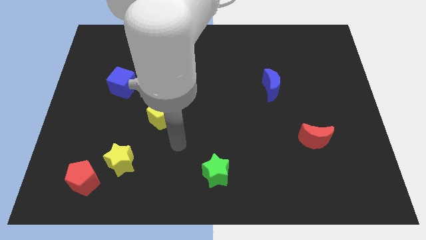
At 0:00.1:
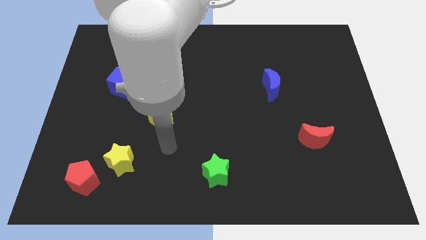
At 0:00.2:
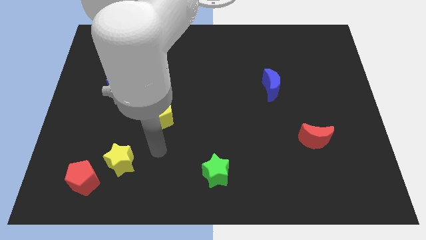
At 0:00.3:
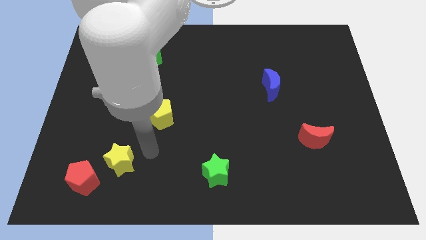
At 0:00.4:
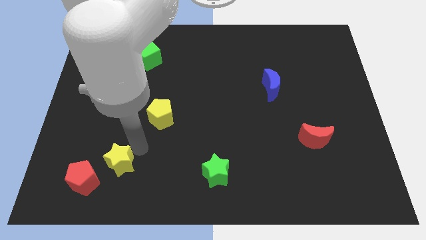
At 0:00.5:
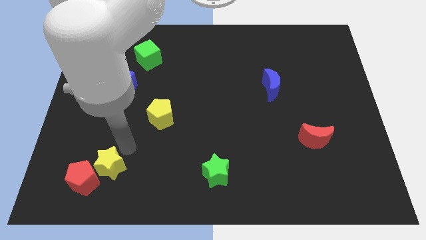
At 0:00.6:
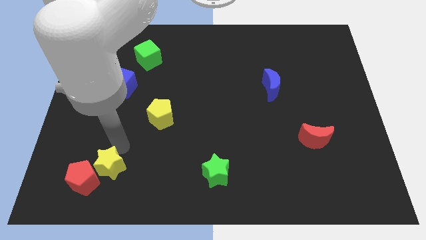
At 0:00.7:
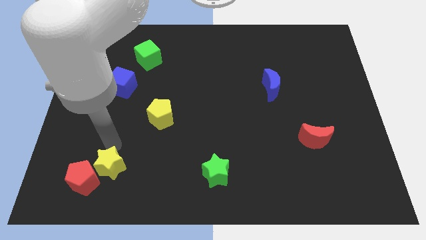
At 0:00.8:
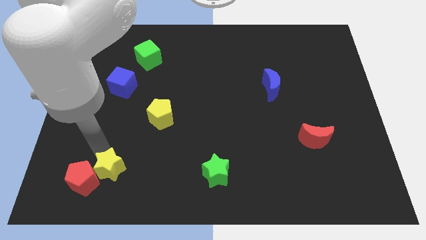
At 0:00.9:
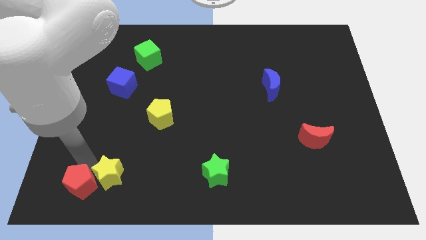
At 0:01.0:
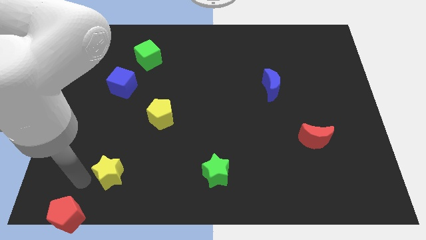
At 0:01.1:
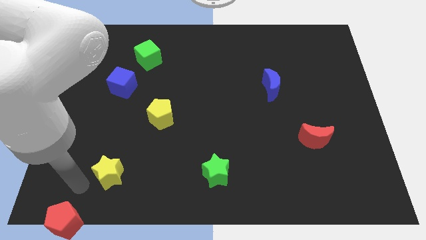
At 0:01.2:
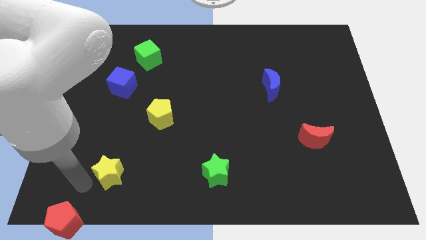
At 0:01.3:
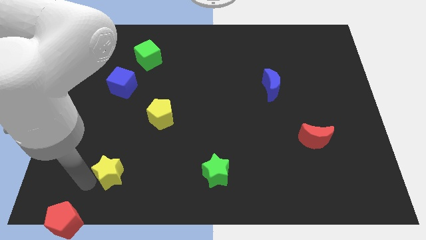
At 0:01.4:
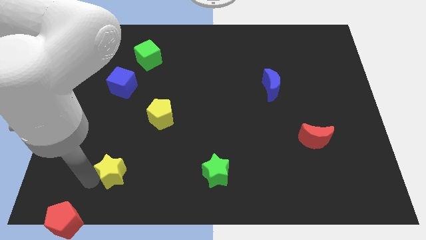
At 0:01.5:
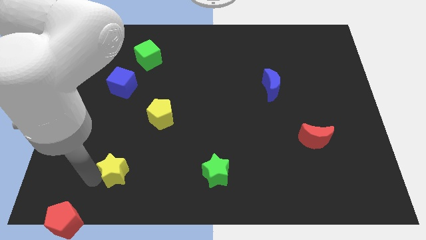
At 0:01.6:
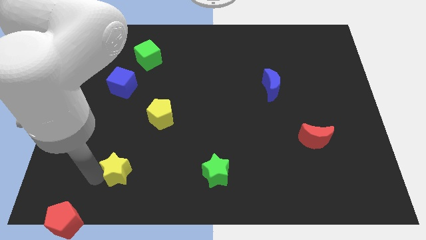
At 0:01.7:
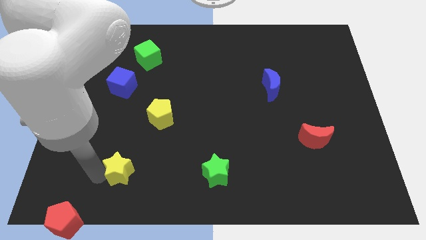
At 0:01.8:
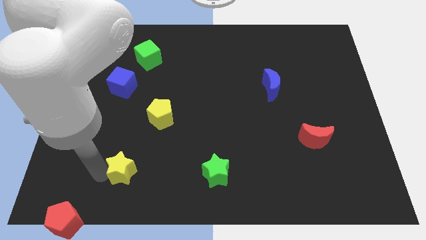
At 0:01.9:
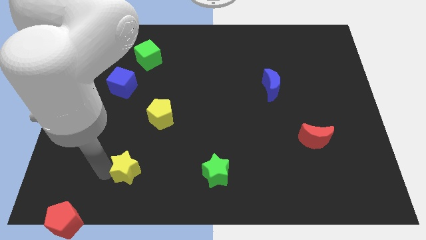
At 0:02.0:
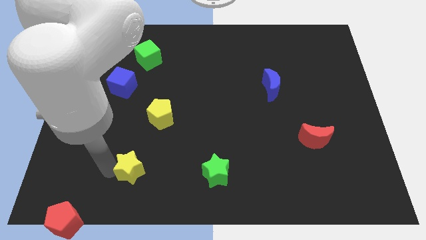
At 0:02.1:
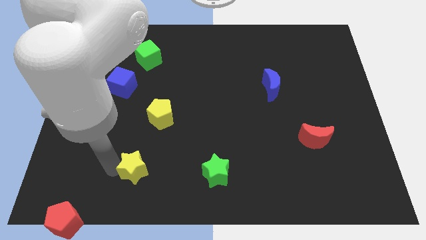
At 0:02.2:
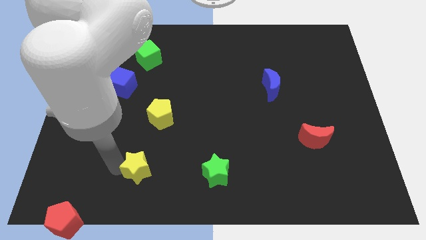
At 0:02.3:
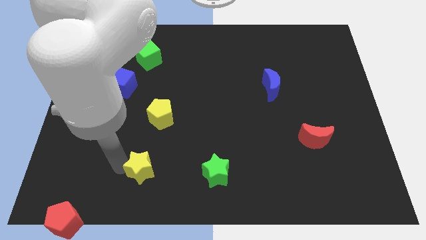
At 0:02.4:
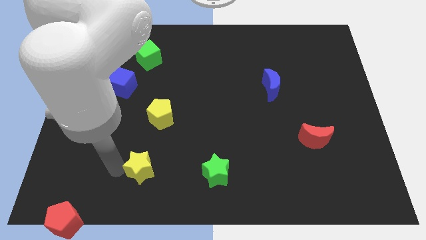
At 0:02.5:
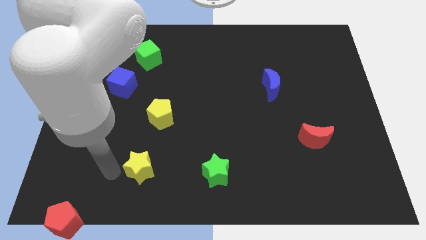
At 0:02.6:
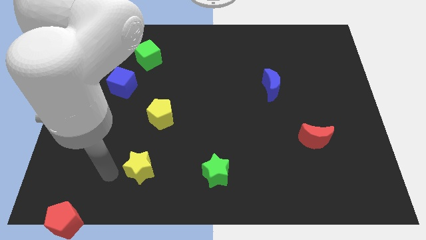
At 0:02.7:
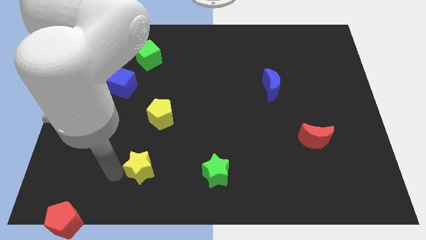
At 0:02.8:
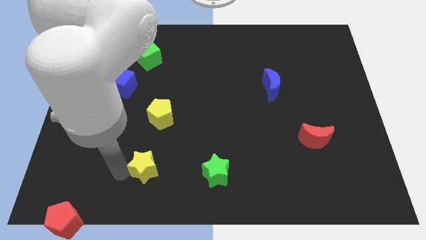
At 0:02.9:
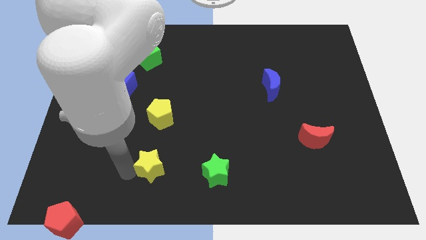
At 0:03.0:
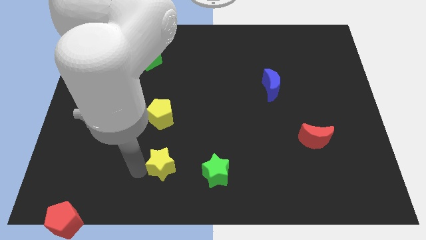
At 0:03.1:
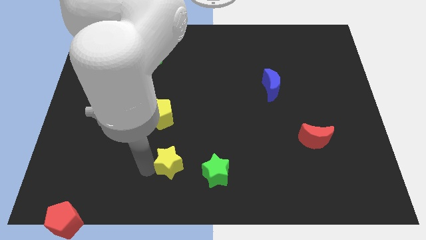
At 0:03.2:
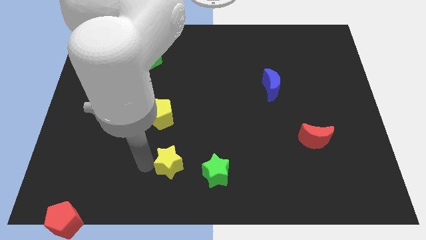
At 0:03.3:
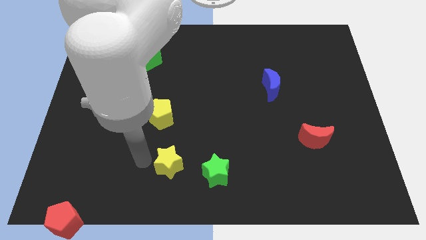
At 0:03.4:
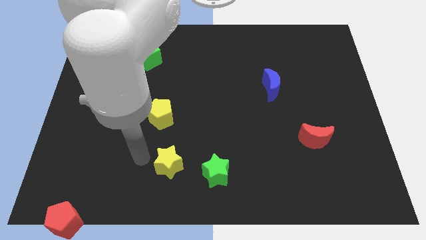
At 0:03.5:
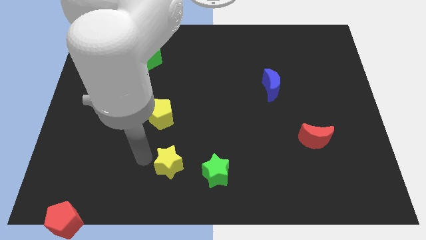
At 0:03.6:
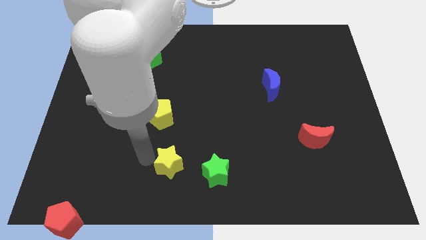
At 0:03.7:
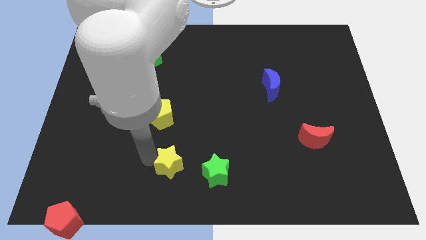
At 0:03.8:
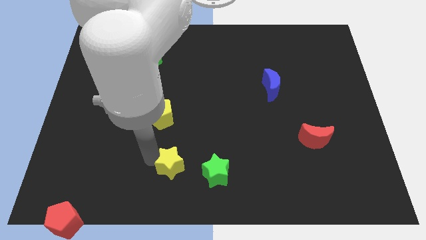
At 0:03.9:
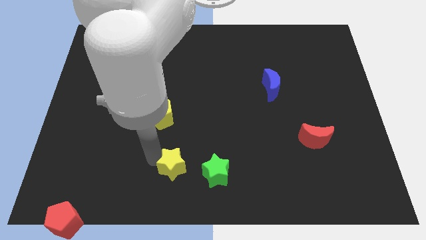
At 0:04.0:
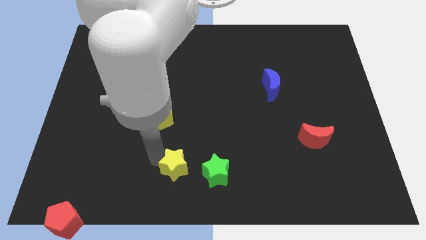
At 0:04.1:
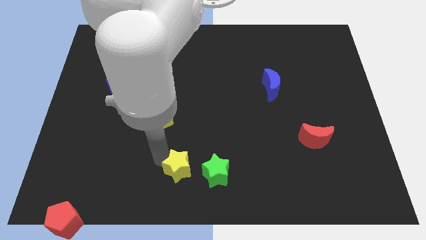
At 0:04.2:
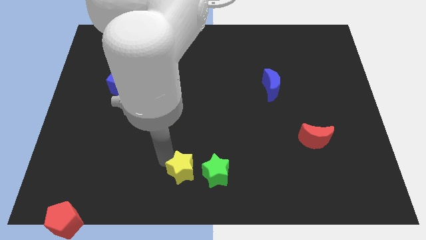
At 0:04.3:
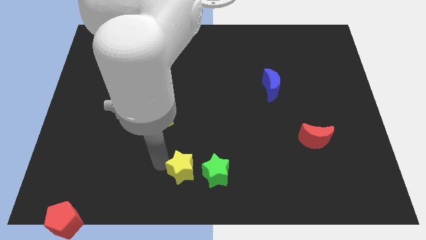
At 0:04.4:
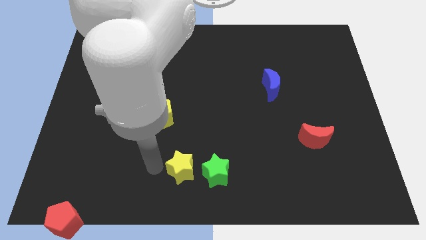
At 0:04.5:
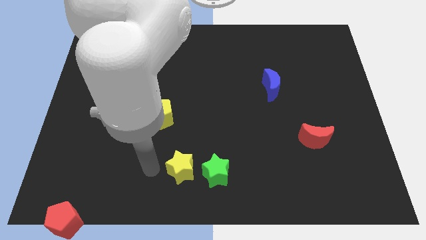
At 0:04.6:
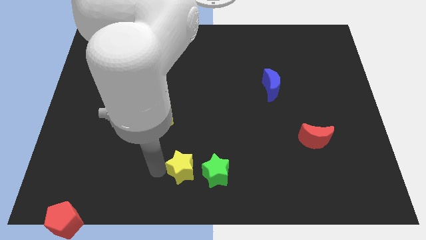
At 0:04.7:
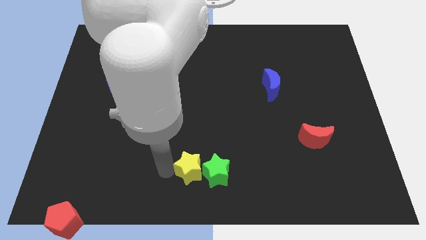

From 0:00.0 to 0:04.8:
move the yellow star next to the green star

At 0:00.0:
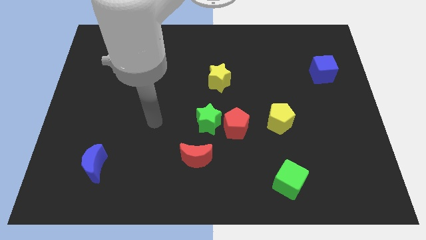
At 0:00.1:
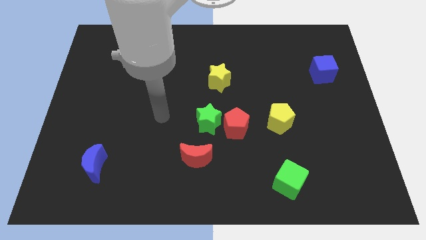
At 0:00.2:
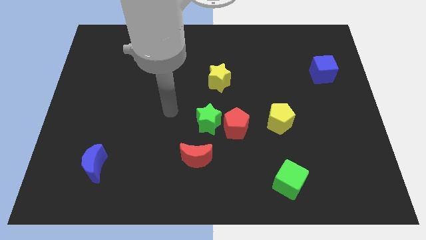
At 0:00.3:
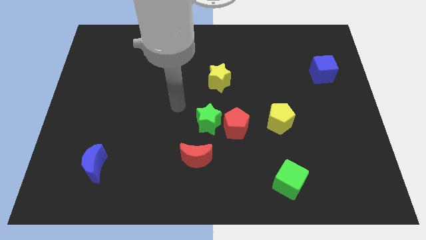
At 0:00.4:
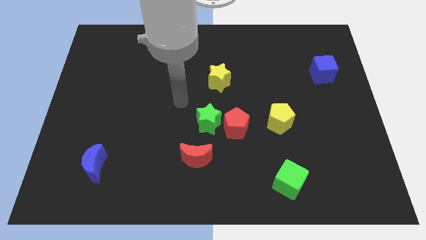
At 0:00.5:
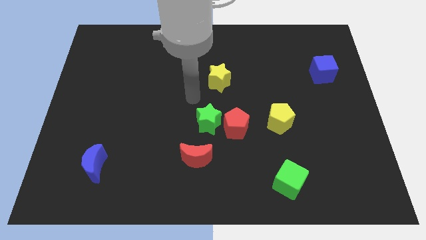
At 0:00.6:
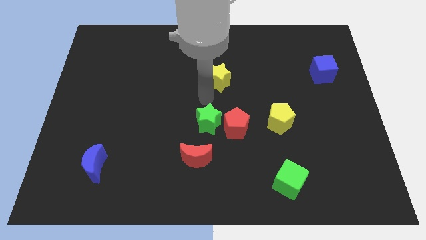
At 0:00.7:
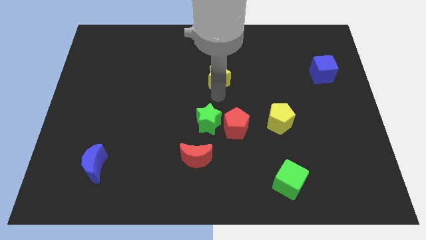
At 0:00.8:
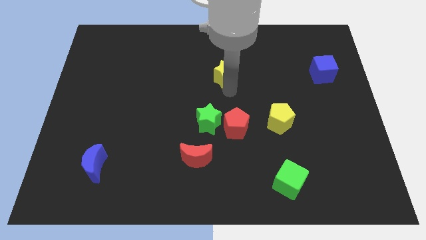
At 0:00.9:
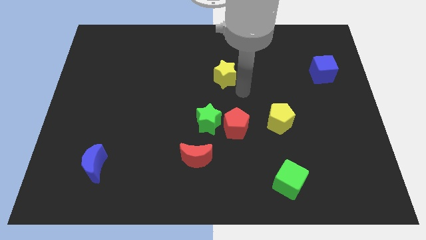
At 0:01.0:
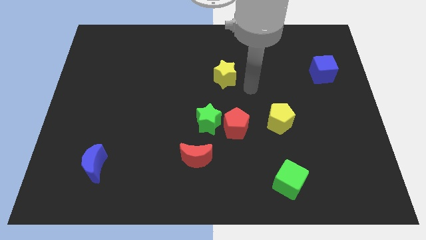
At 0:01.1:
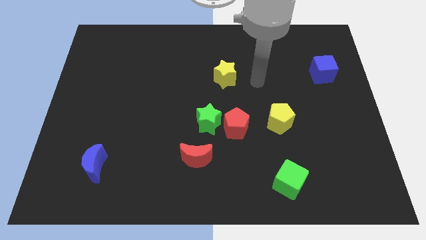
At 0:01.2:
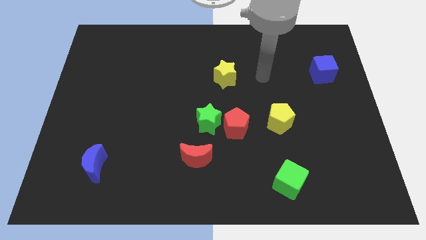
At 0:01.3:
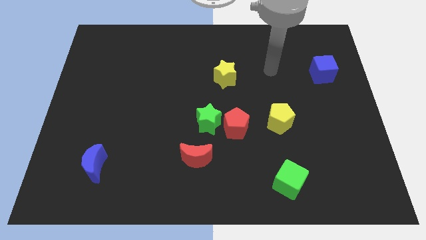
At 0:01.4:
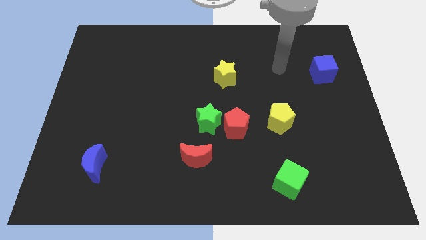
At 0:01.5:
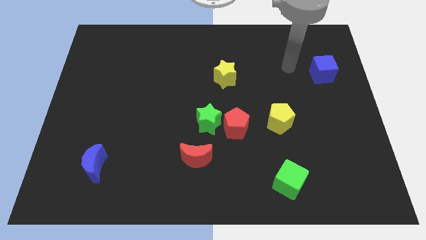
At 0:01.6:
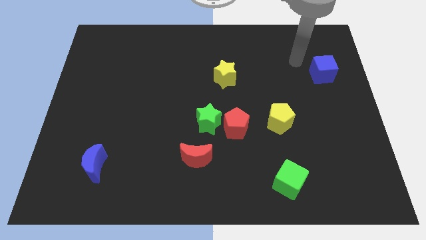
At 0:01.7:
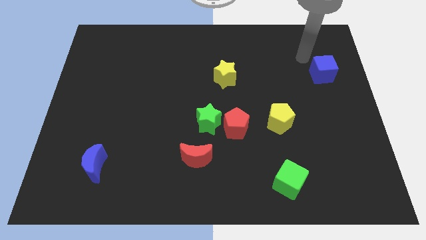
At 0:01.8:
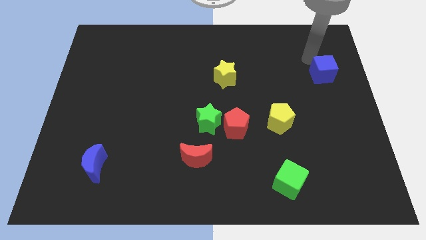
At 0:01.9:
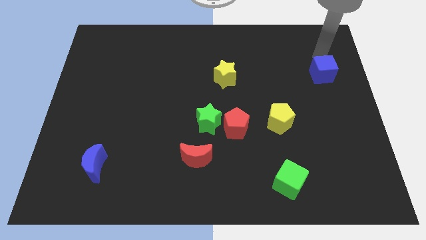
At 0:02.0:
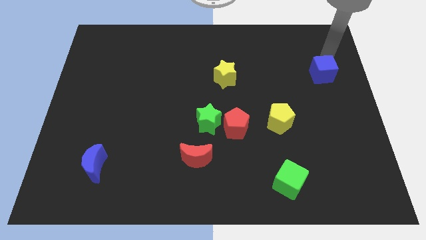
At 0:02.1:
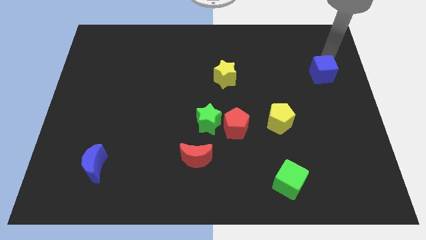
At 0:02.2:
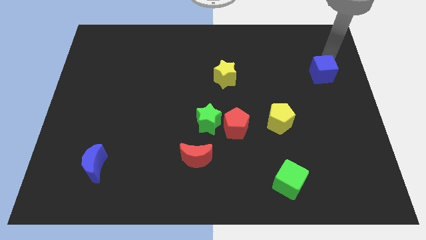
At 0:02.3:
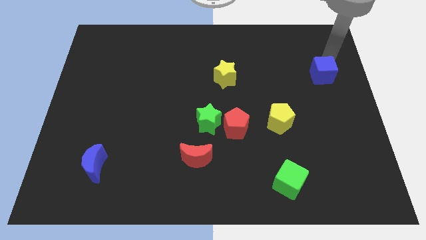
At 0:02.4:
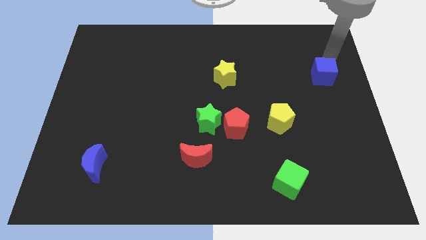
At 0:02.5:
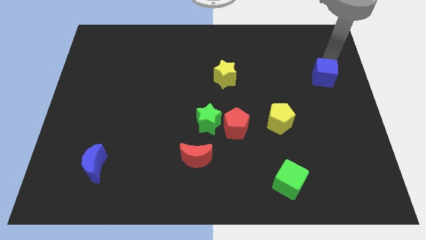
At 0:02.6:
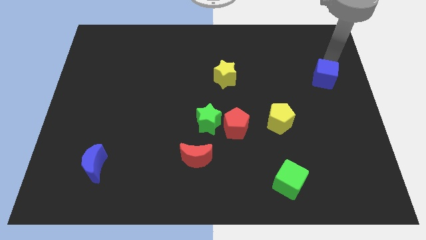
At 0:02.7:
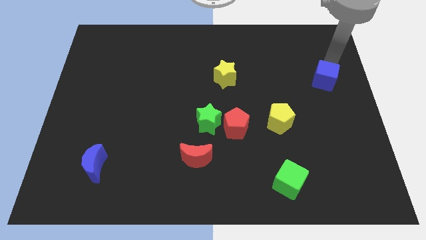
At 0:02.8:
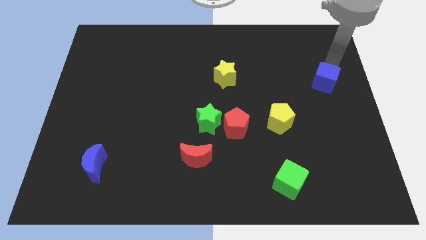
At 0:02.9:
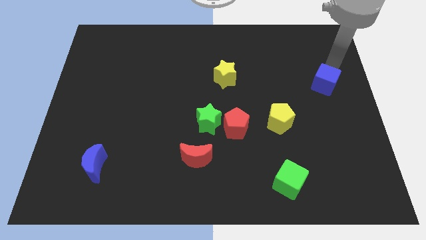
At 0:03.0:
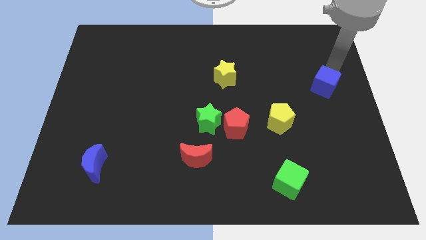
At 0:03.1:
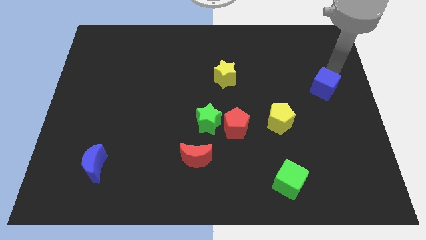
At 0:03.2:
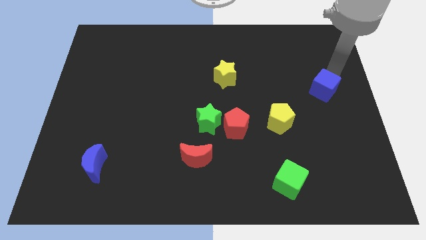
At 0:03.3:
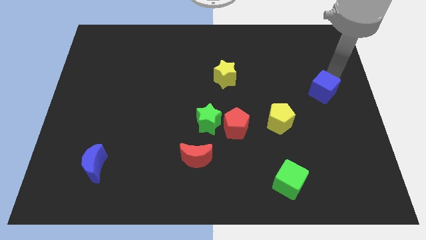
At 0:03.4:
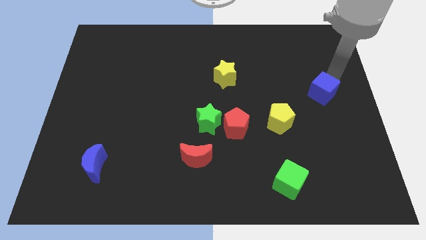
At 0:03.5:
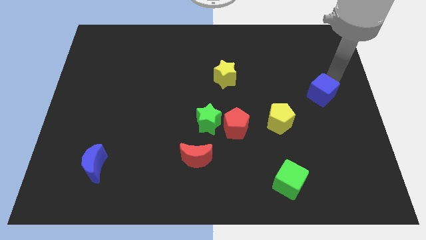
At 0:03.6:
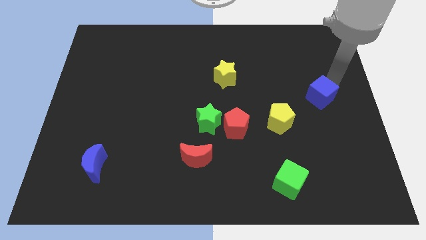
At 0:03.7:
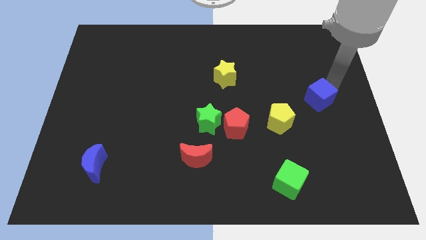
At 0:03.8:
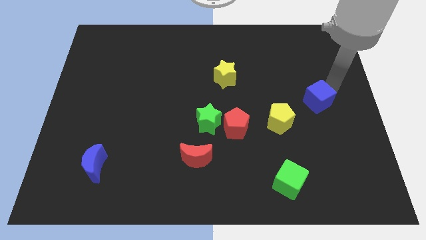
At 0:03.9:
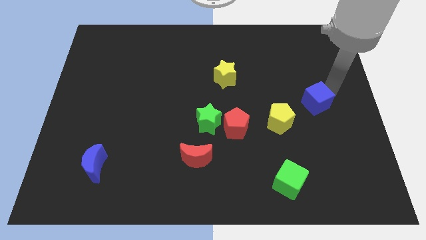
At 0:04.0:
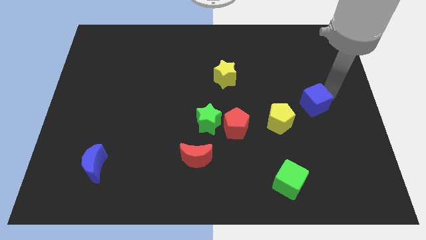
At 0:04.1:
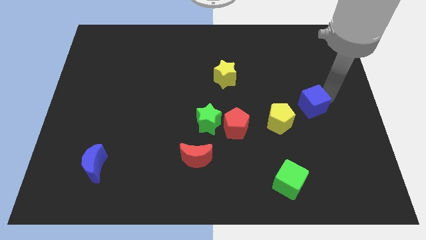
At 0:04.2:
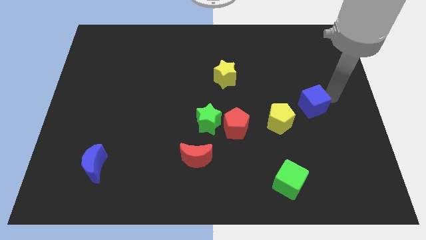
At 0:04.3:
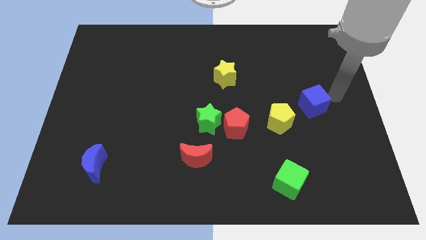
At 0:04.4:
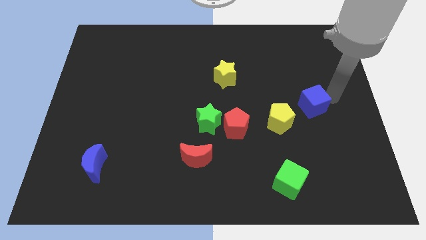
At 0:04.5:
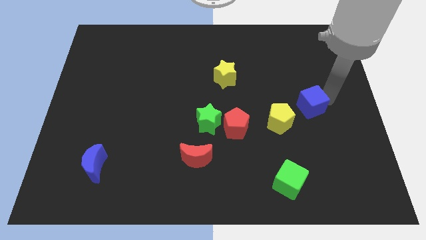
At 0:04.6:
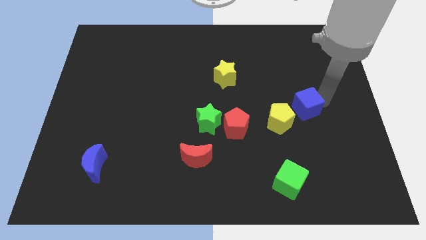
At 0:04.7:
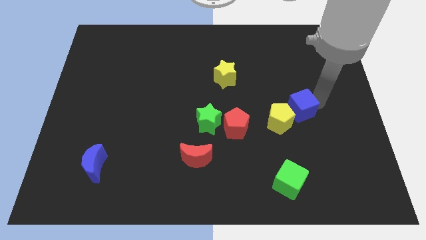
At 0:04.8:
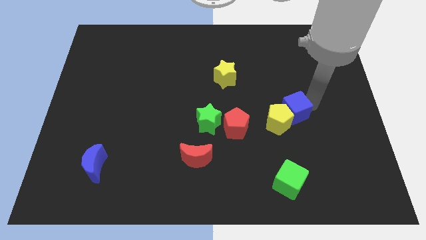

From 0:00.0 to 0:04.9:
move the blue cube to the yellow pentagon
